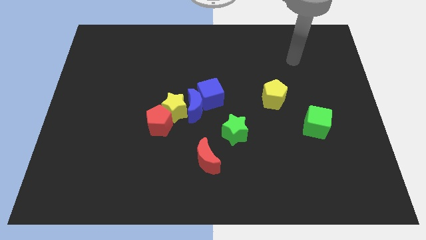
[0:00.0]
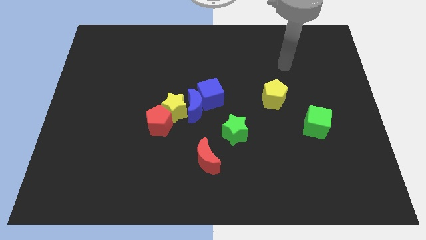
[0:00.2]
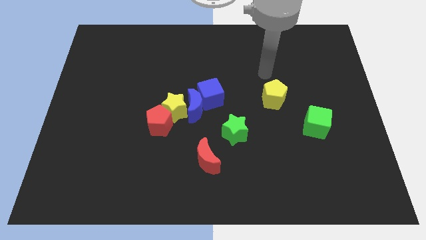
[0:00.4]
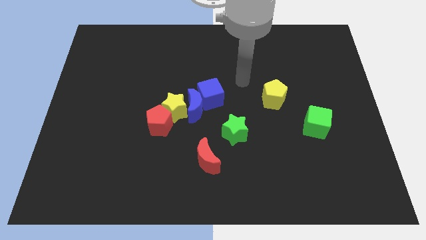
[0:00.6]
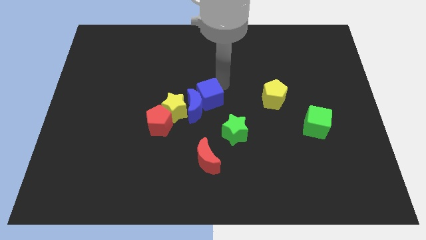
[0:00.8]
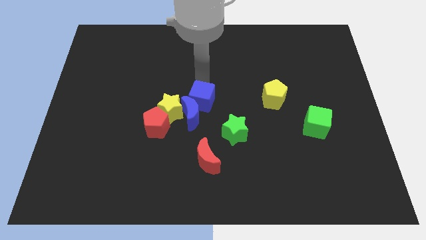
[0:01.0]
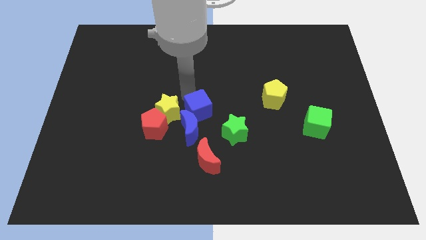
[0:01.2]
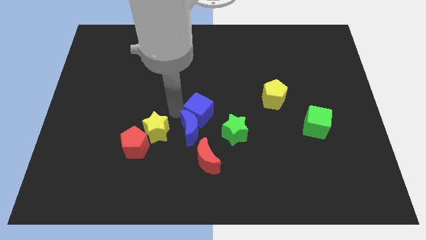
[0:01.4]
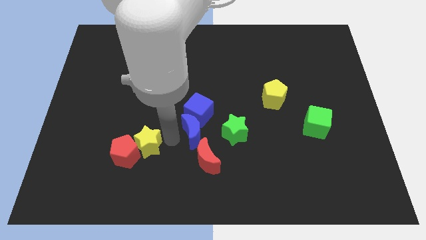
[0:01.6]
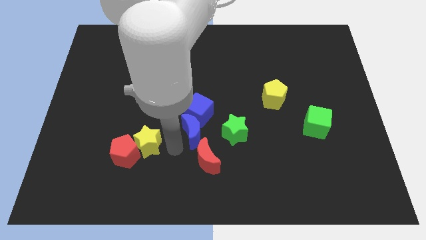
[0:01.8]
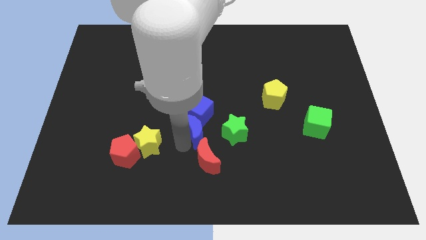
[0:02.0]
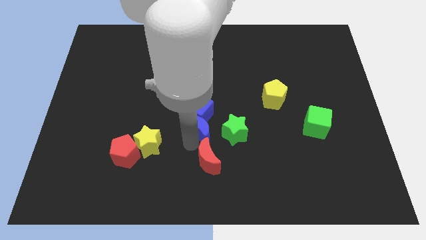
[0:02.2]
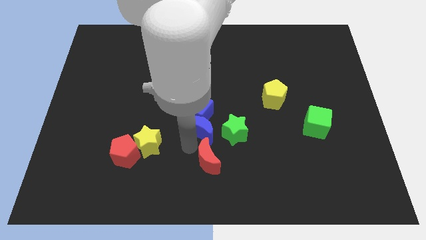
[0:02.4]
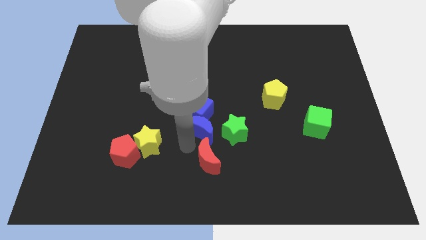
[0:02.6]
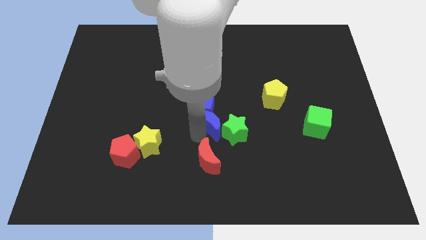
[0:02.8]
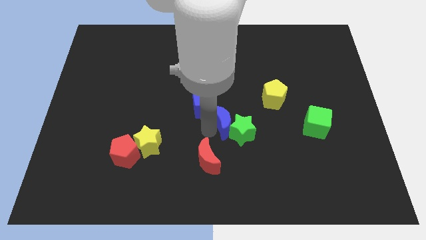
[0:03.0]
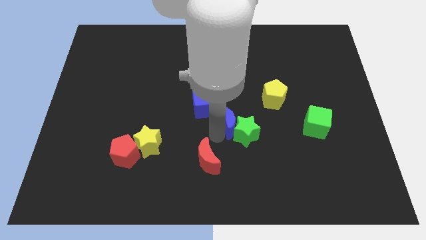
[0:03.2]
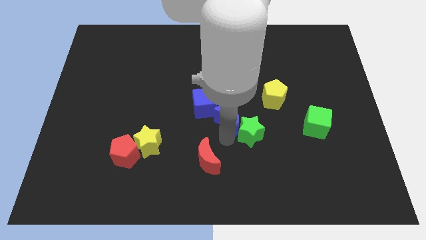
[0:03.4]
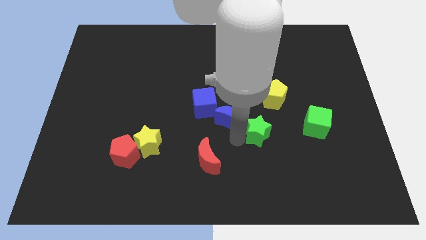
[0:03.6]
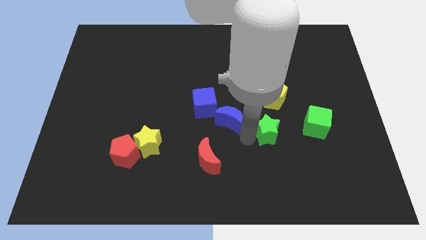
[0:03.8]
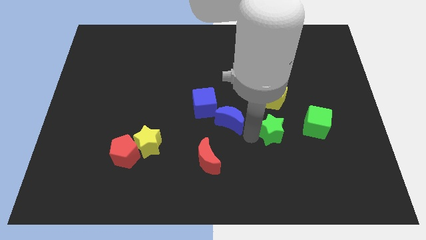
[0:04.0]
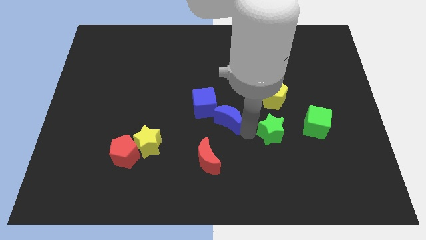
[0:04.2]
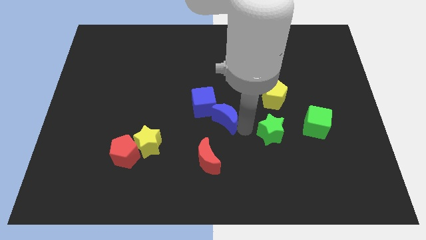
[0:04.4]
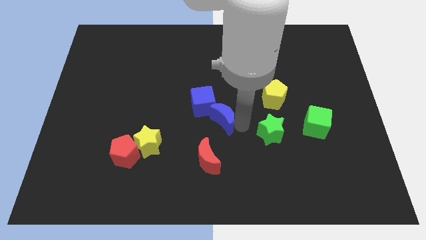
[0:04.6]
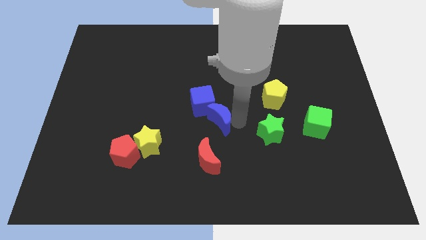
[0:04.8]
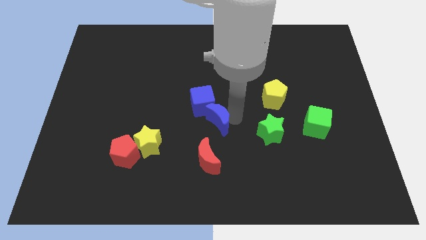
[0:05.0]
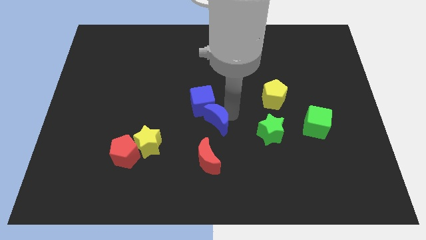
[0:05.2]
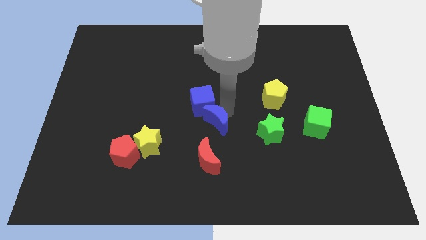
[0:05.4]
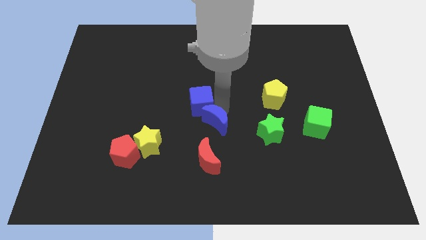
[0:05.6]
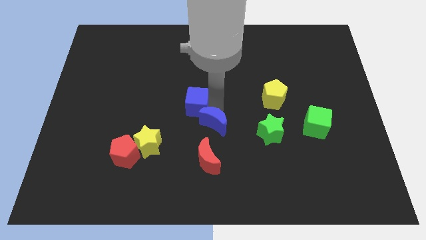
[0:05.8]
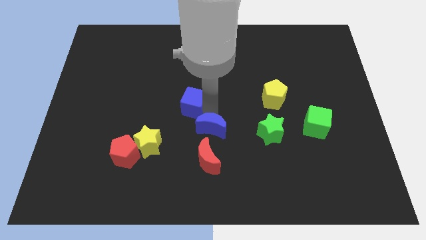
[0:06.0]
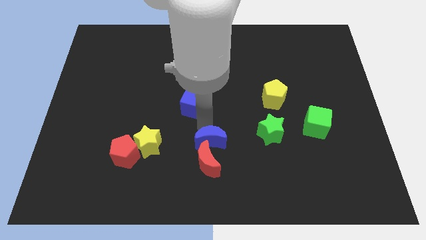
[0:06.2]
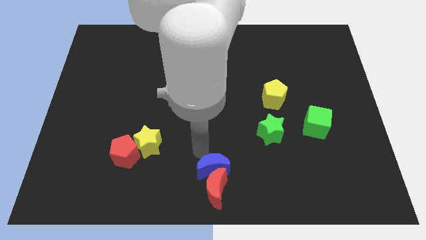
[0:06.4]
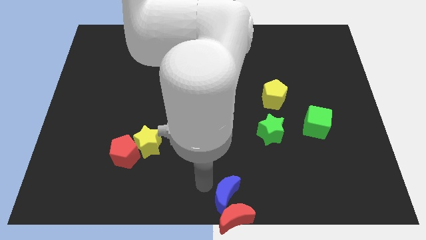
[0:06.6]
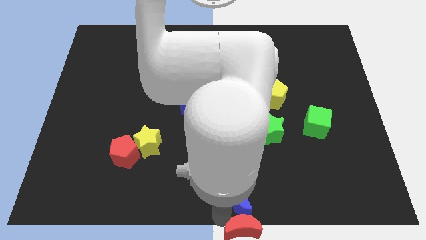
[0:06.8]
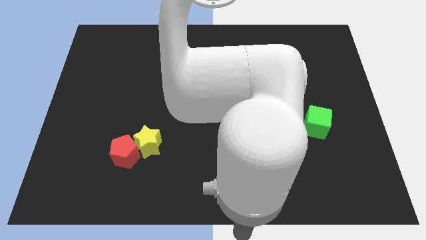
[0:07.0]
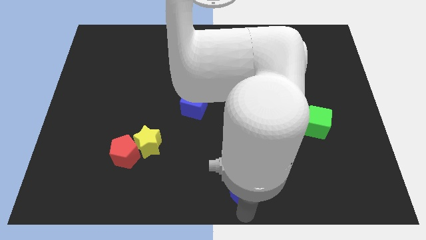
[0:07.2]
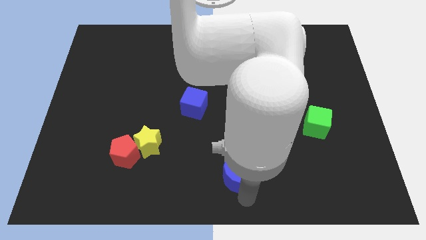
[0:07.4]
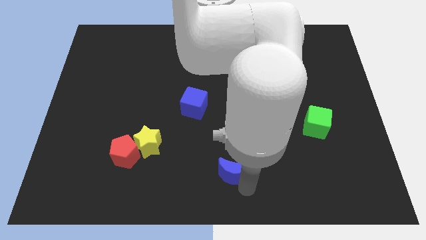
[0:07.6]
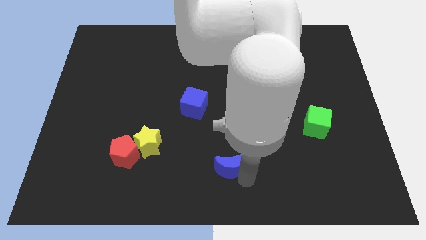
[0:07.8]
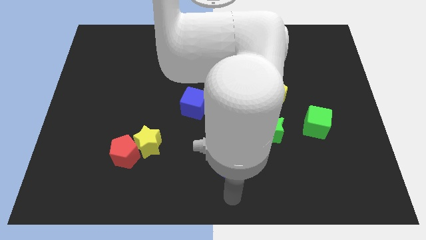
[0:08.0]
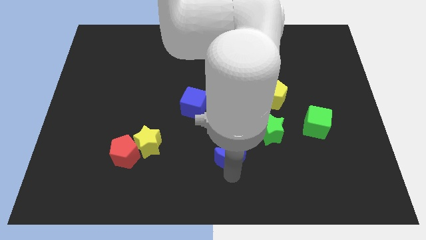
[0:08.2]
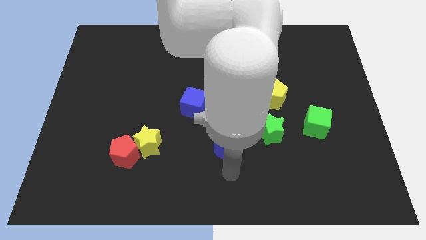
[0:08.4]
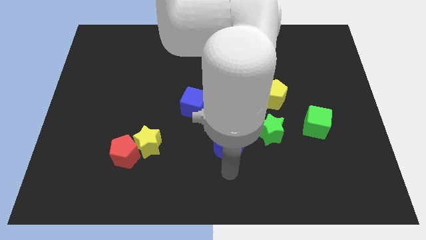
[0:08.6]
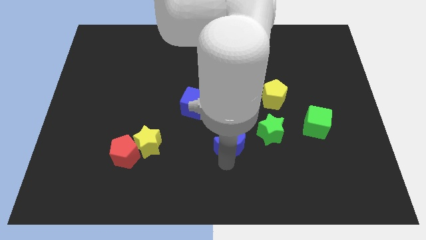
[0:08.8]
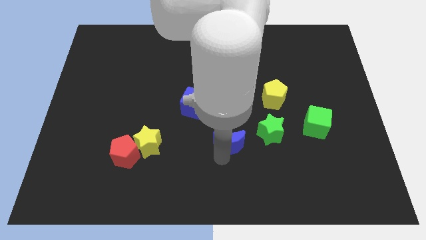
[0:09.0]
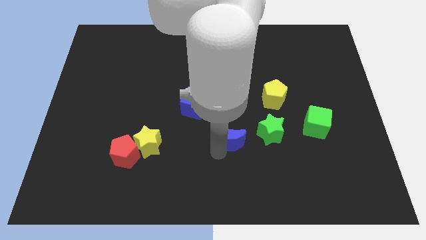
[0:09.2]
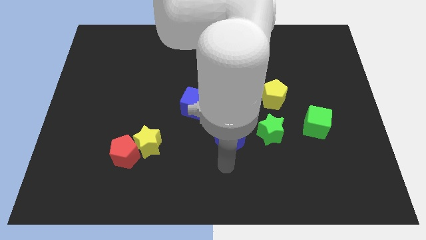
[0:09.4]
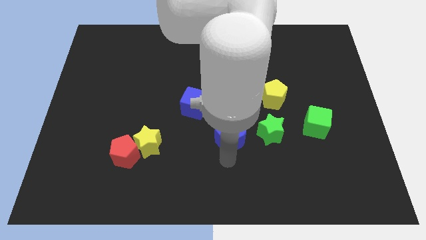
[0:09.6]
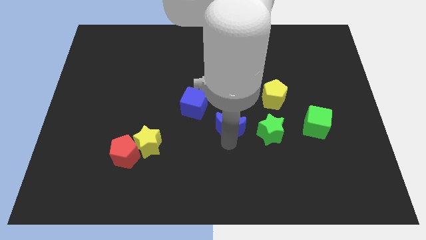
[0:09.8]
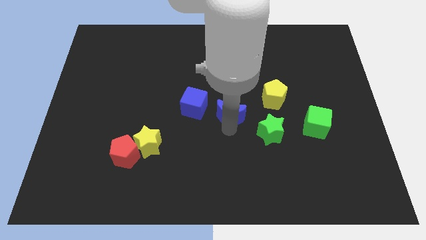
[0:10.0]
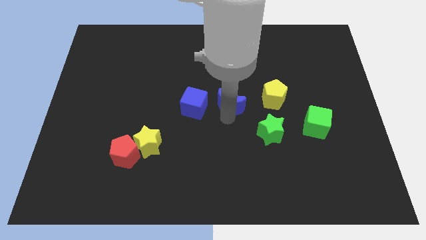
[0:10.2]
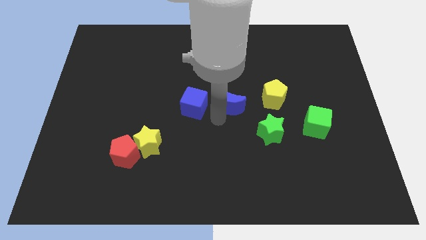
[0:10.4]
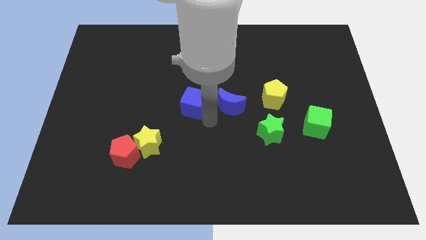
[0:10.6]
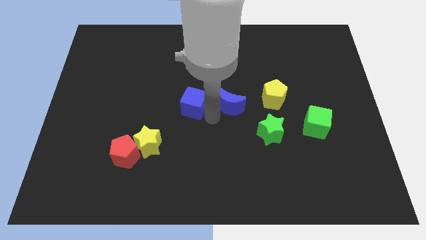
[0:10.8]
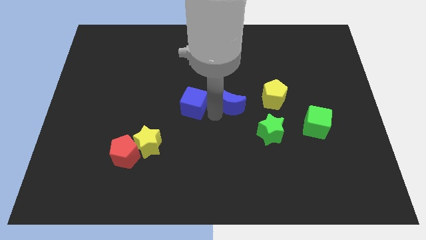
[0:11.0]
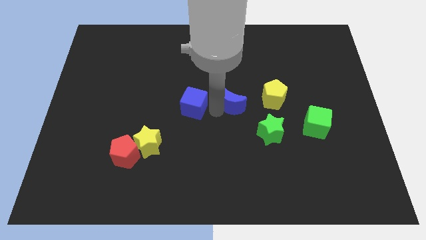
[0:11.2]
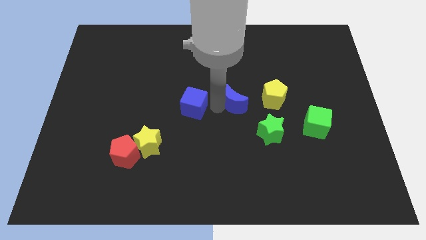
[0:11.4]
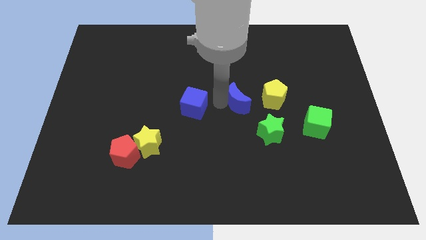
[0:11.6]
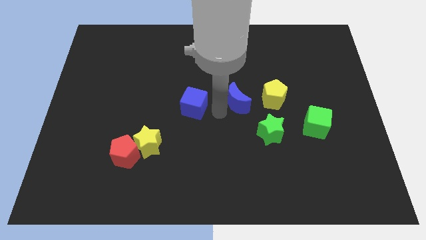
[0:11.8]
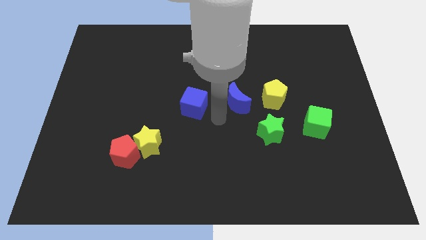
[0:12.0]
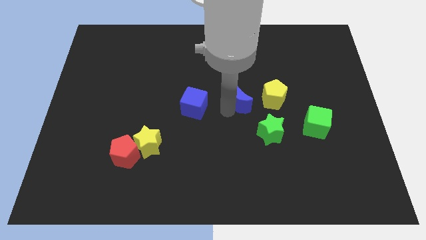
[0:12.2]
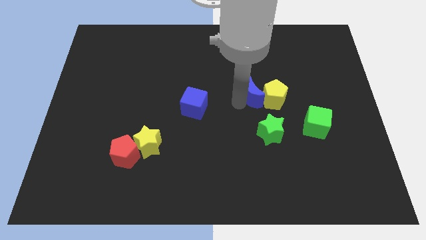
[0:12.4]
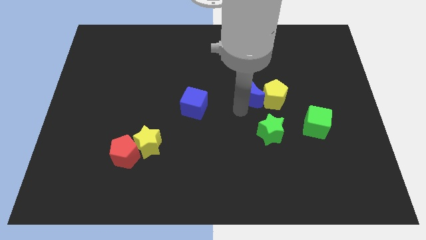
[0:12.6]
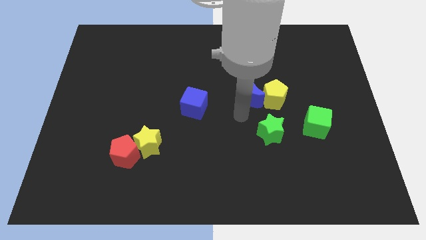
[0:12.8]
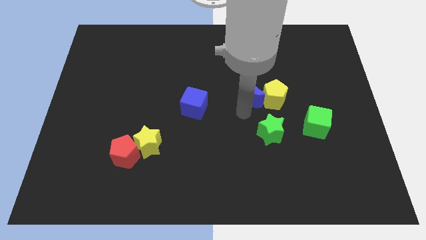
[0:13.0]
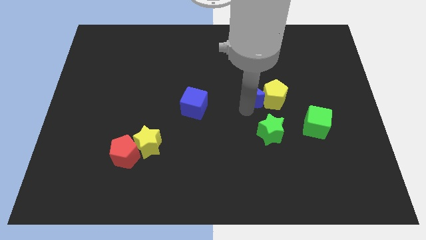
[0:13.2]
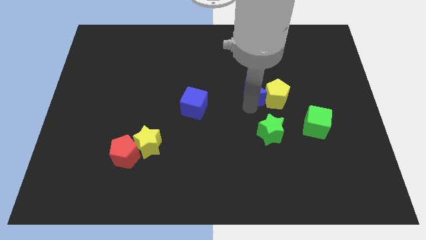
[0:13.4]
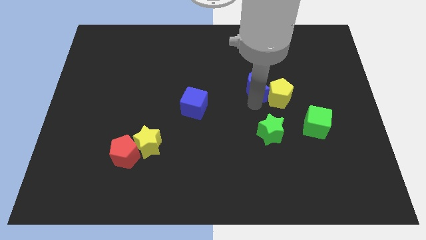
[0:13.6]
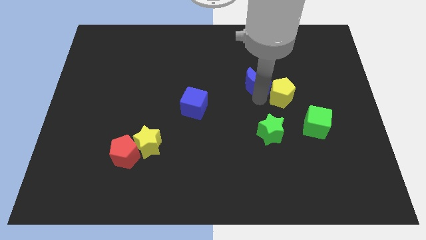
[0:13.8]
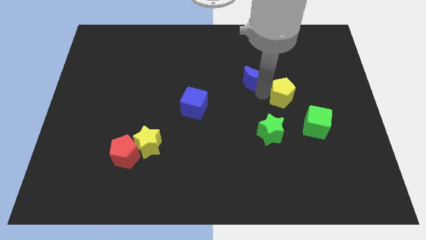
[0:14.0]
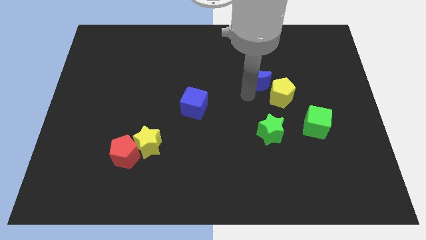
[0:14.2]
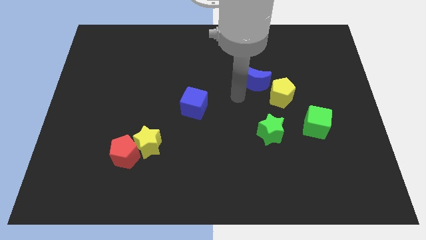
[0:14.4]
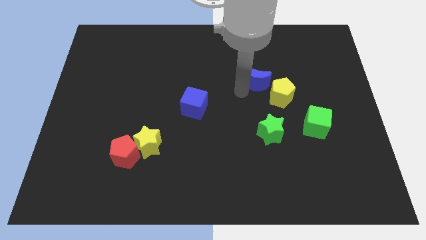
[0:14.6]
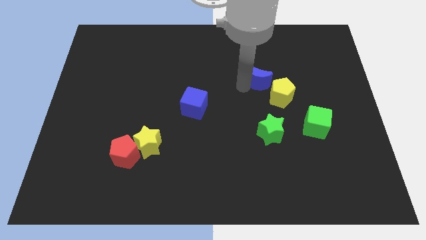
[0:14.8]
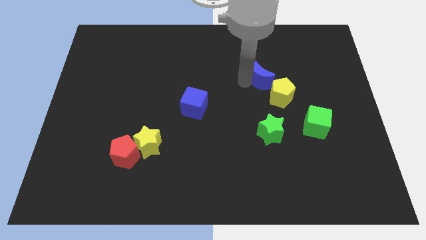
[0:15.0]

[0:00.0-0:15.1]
move the blue moon to the top side of the yellow pentagon
